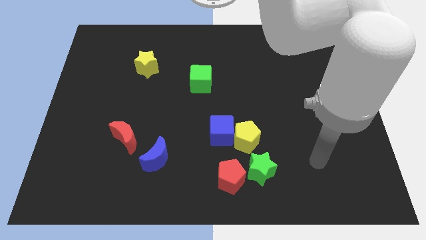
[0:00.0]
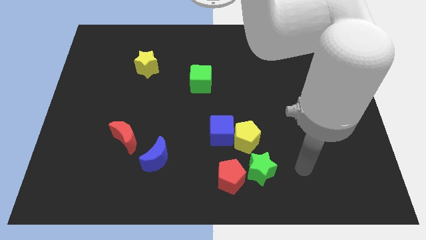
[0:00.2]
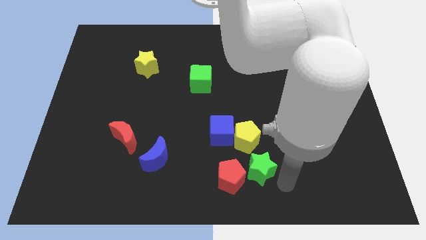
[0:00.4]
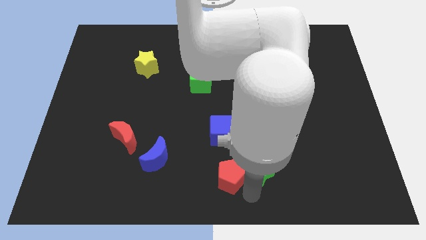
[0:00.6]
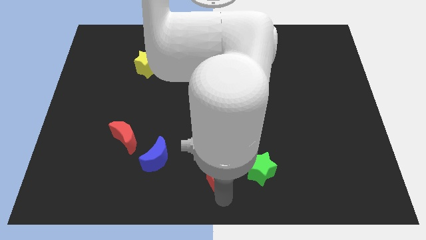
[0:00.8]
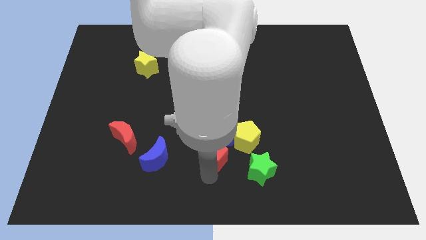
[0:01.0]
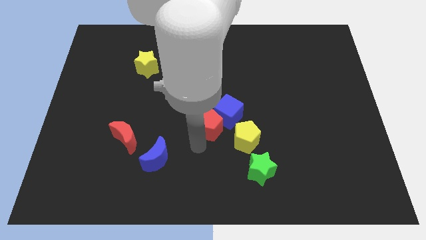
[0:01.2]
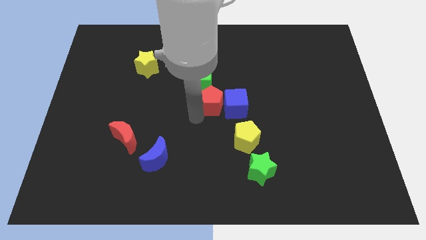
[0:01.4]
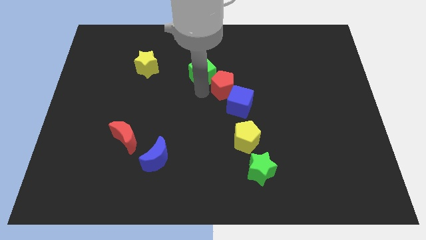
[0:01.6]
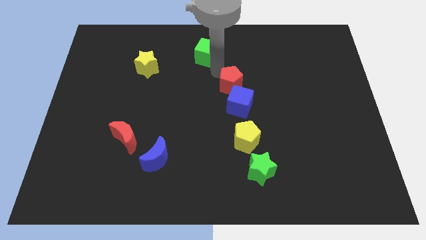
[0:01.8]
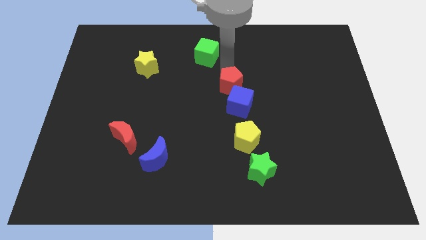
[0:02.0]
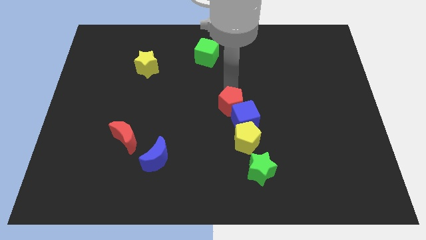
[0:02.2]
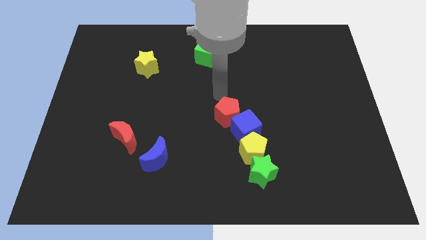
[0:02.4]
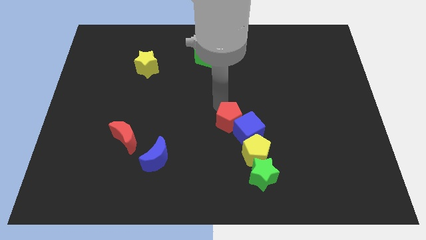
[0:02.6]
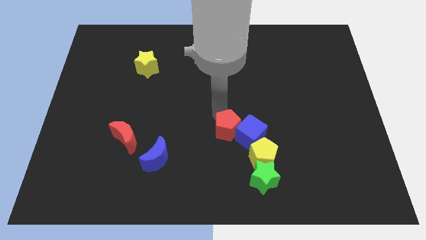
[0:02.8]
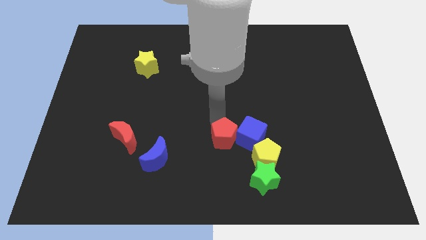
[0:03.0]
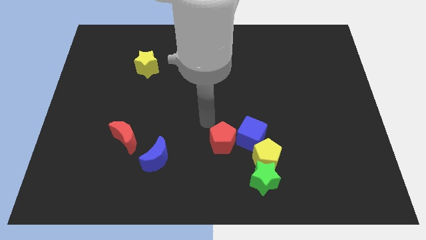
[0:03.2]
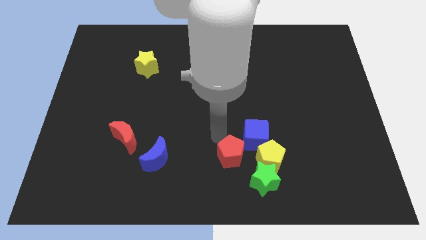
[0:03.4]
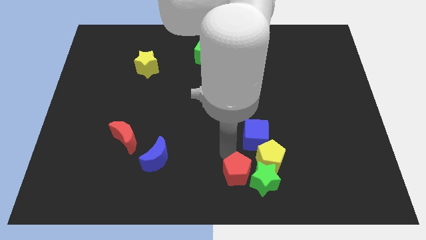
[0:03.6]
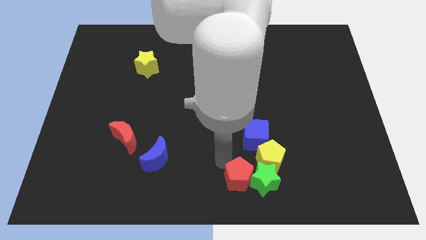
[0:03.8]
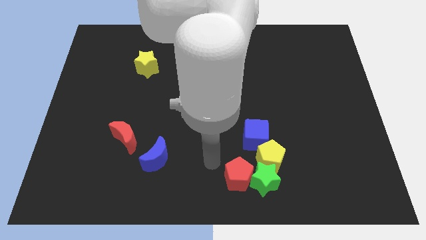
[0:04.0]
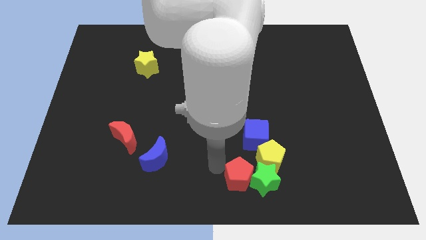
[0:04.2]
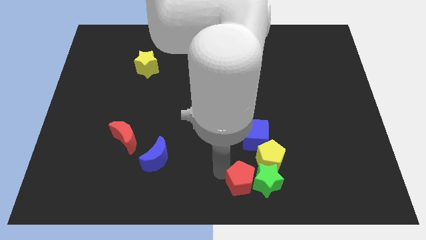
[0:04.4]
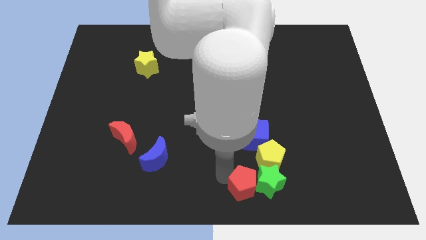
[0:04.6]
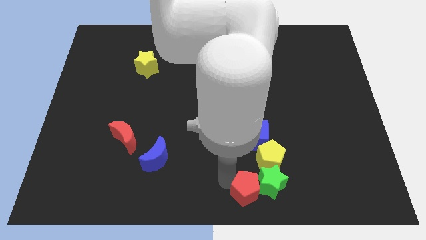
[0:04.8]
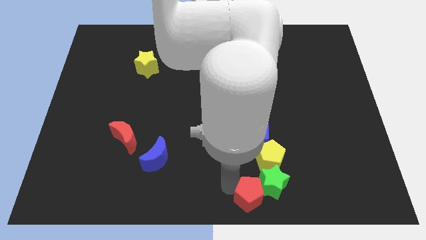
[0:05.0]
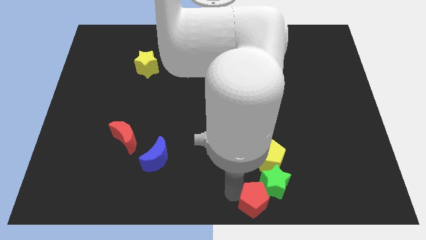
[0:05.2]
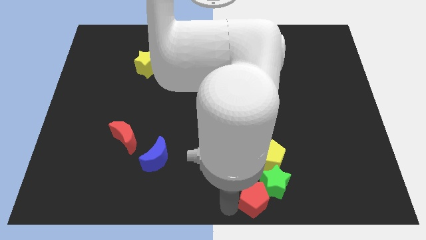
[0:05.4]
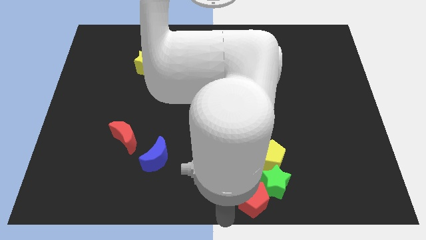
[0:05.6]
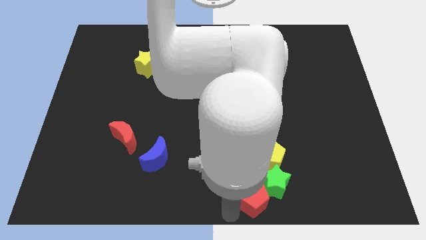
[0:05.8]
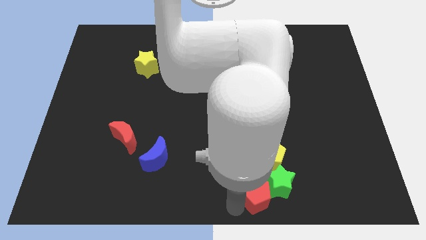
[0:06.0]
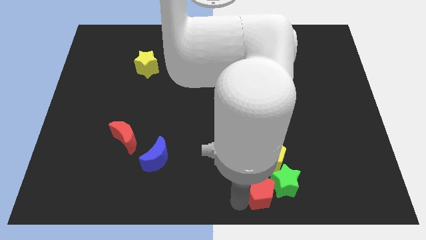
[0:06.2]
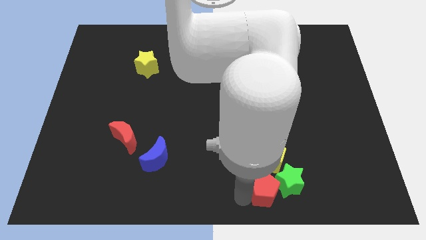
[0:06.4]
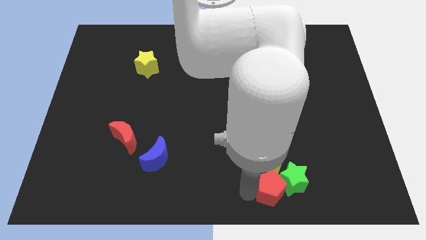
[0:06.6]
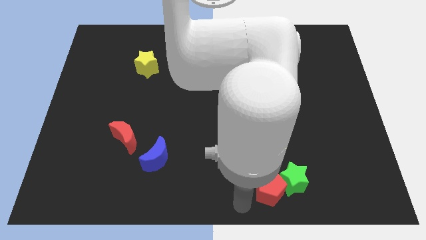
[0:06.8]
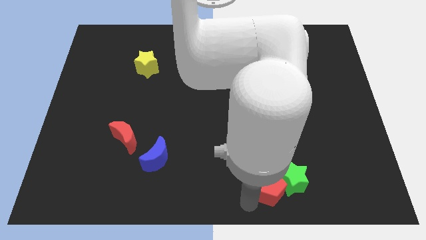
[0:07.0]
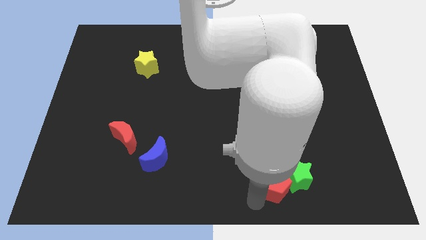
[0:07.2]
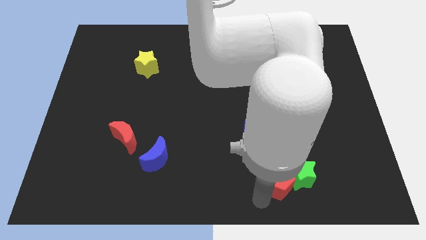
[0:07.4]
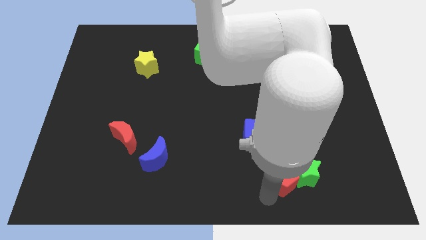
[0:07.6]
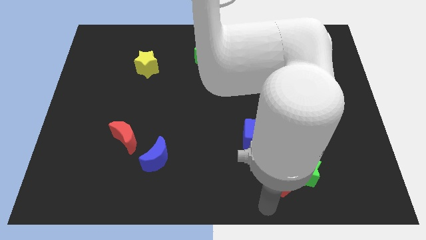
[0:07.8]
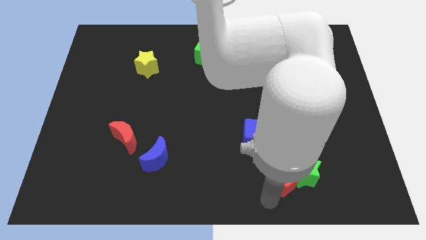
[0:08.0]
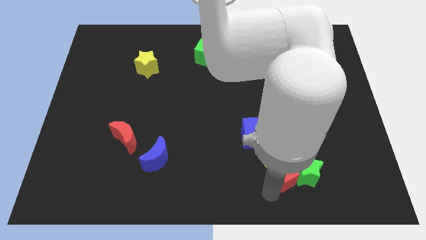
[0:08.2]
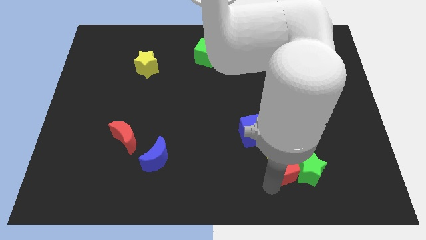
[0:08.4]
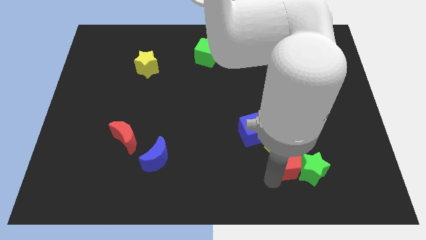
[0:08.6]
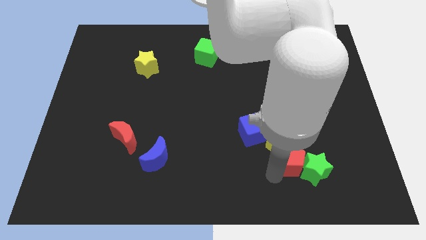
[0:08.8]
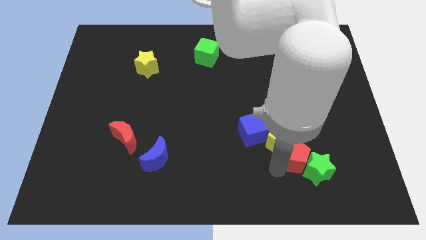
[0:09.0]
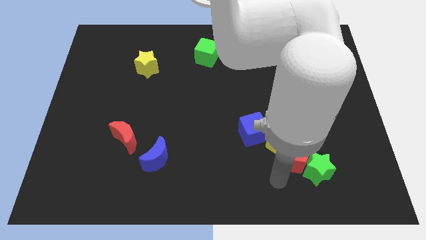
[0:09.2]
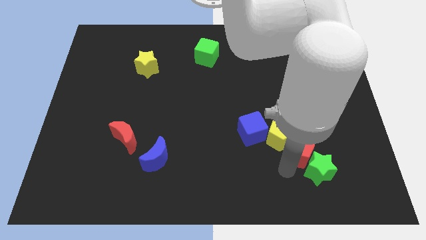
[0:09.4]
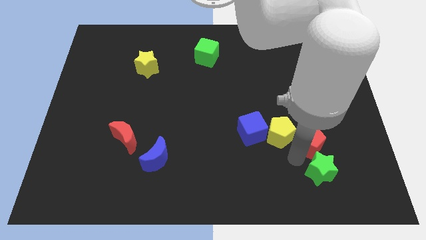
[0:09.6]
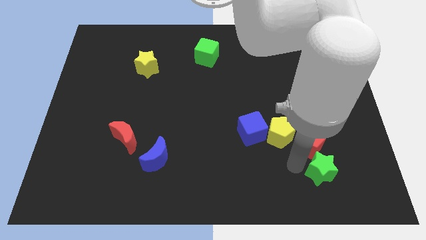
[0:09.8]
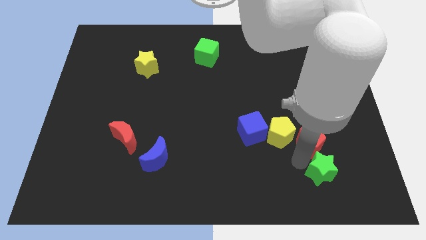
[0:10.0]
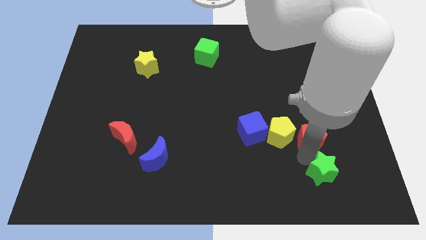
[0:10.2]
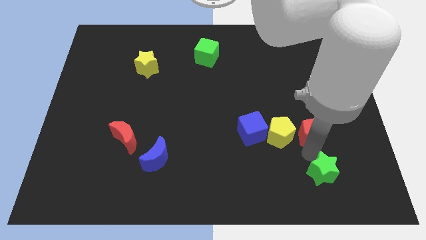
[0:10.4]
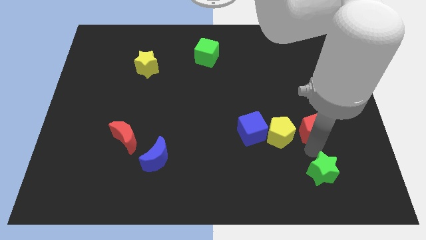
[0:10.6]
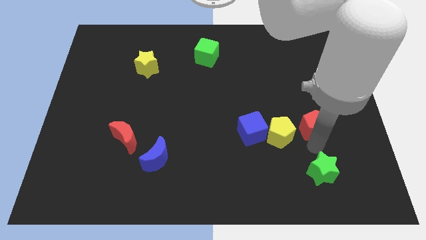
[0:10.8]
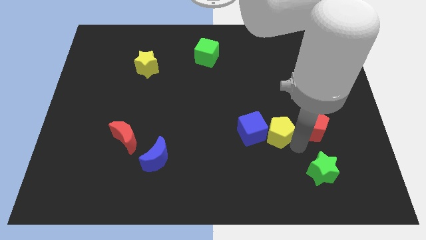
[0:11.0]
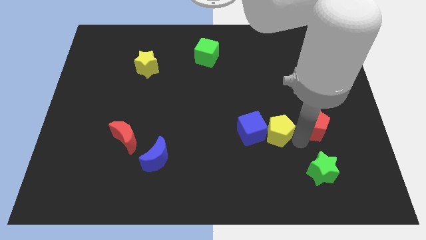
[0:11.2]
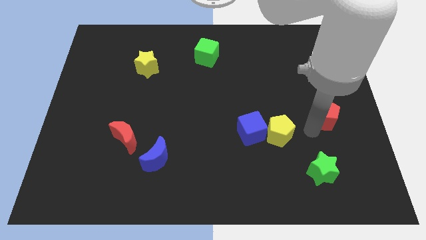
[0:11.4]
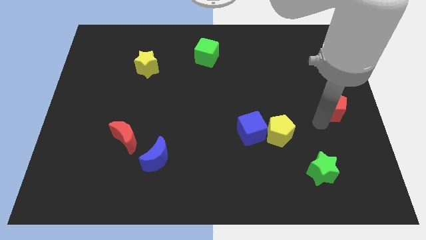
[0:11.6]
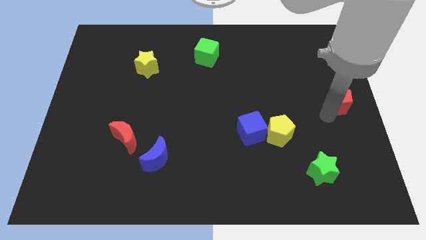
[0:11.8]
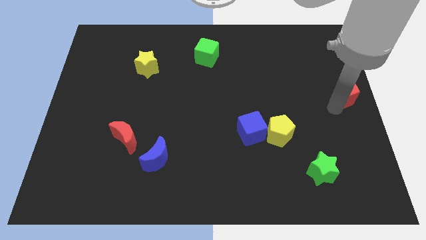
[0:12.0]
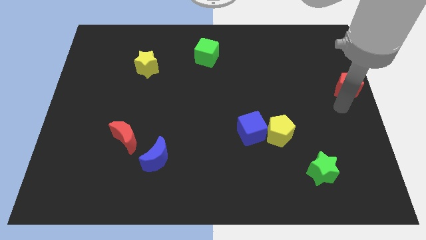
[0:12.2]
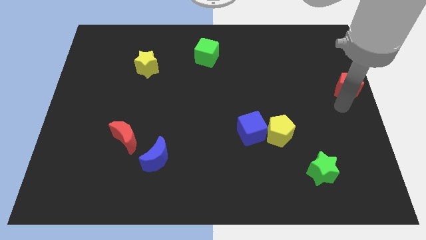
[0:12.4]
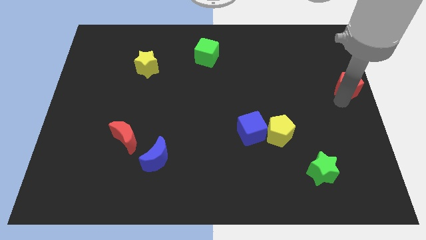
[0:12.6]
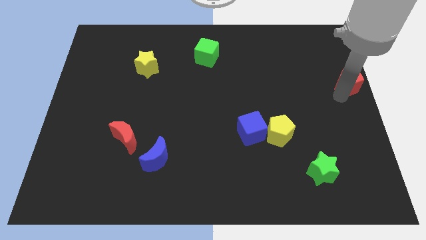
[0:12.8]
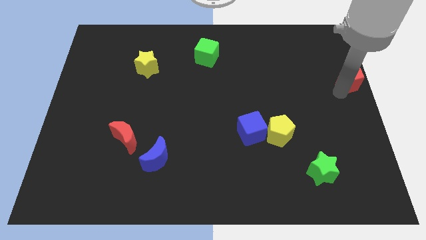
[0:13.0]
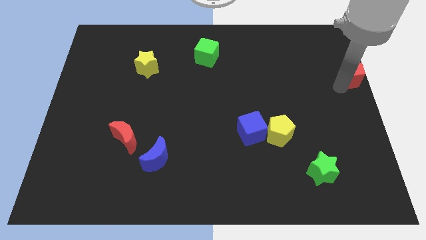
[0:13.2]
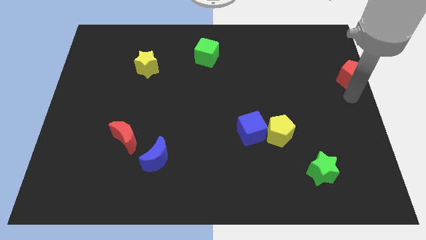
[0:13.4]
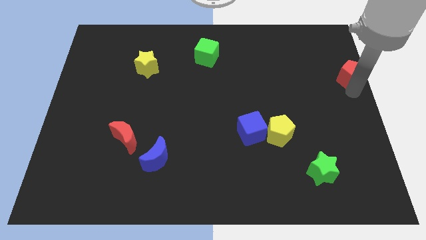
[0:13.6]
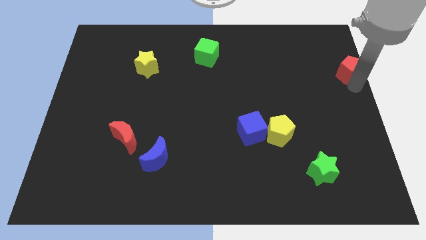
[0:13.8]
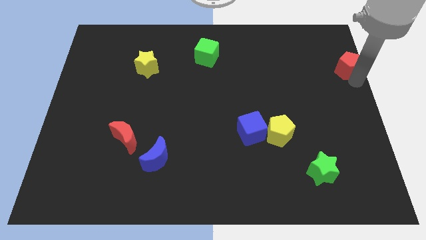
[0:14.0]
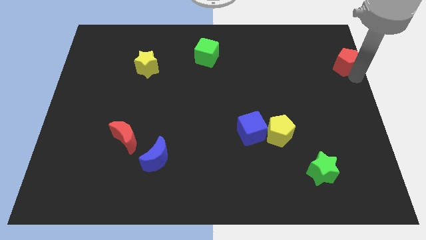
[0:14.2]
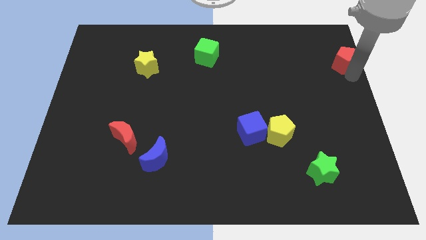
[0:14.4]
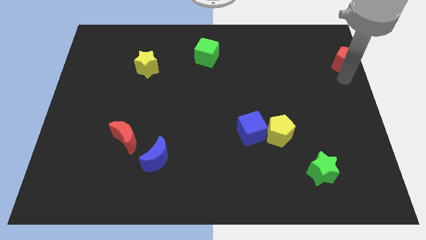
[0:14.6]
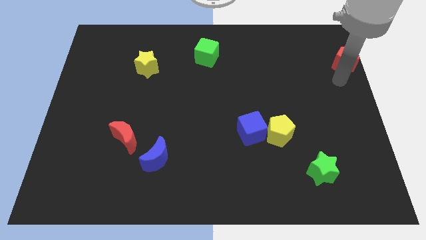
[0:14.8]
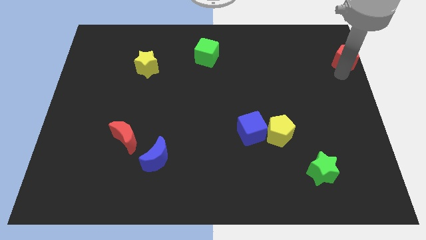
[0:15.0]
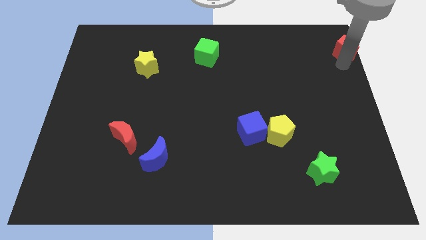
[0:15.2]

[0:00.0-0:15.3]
slide the red pentagon to the top right corner
